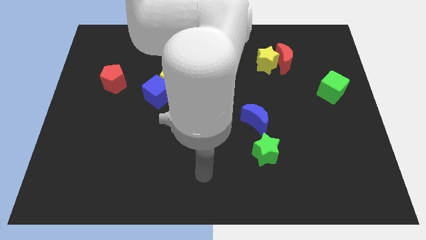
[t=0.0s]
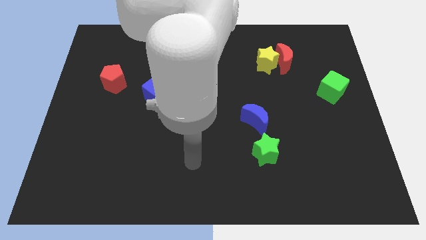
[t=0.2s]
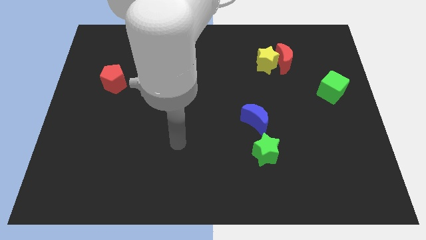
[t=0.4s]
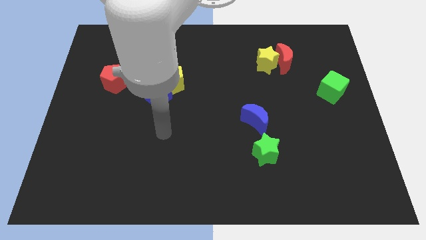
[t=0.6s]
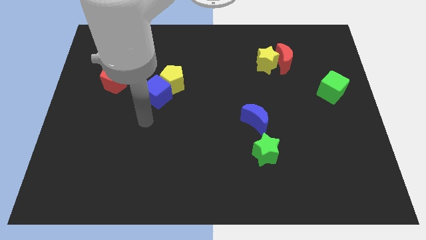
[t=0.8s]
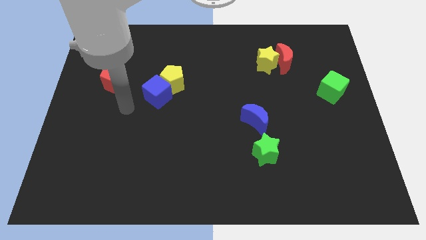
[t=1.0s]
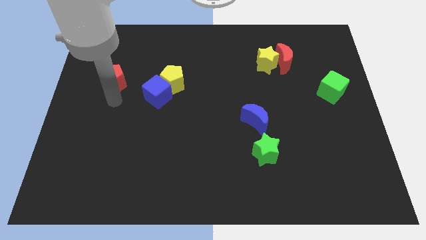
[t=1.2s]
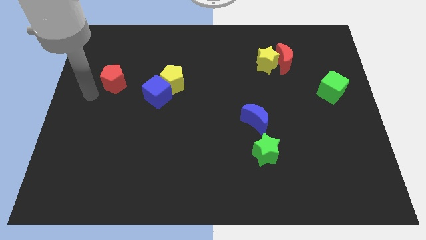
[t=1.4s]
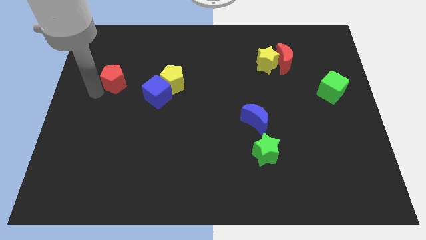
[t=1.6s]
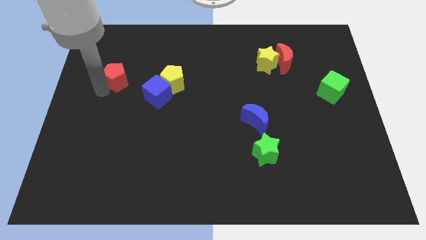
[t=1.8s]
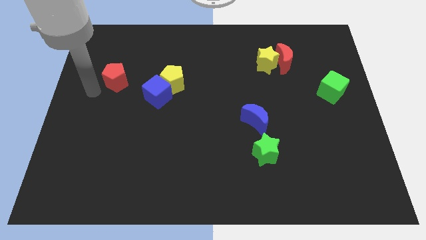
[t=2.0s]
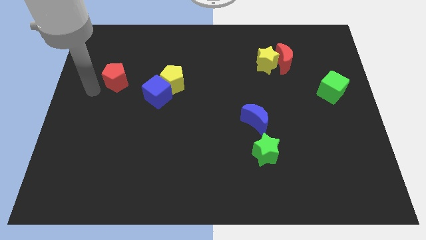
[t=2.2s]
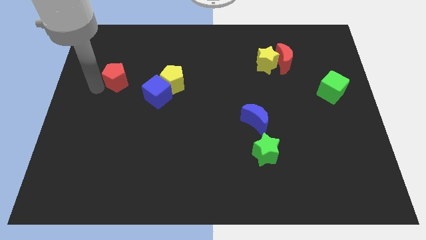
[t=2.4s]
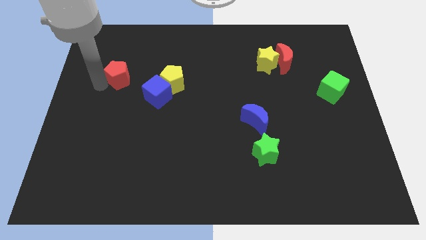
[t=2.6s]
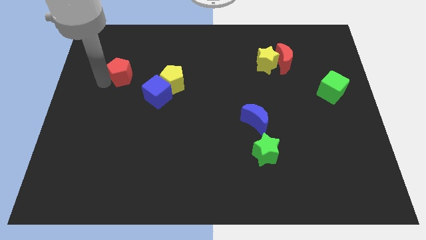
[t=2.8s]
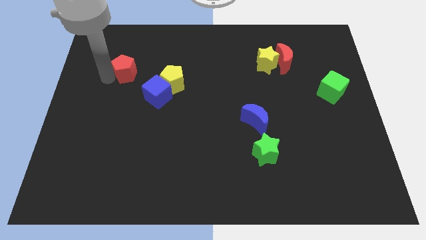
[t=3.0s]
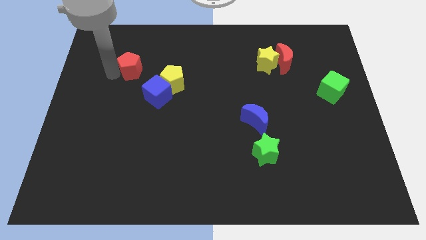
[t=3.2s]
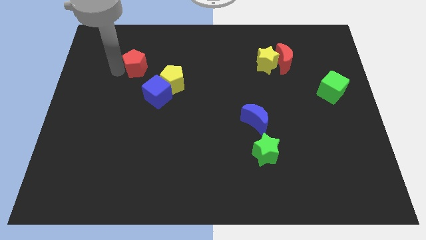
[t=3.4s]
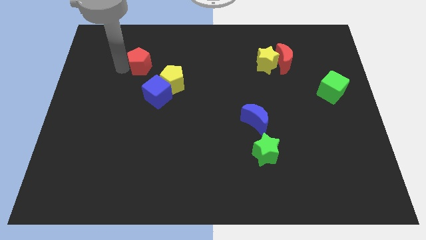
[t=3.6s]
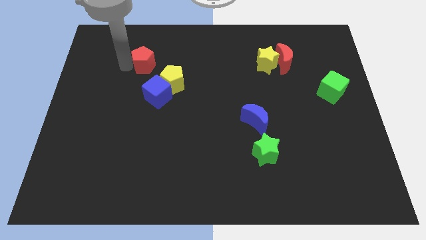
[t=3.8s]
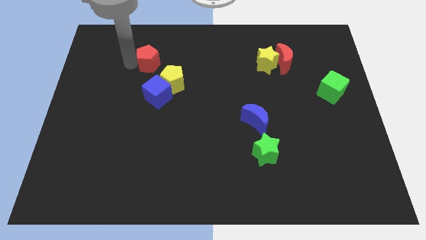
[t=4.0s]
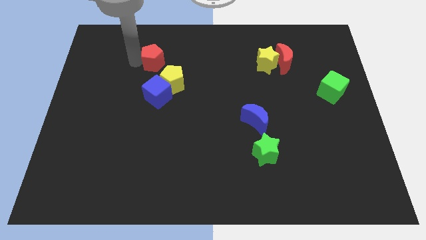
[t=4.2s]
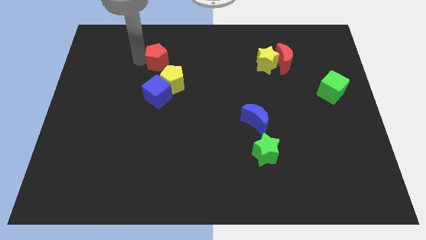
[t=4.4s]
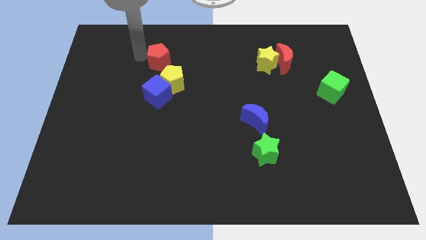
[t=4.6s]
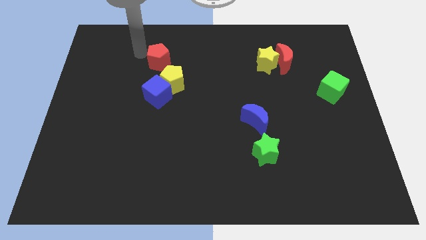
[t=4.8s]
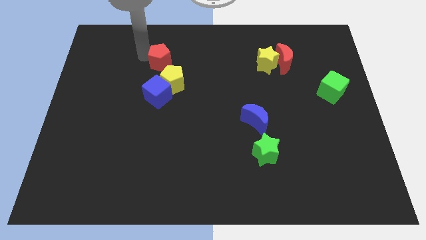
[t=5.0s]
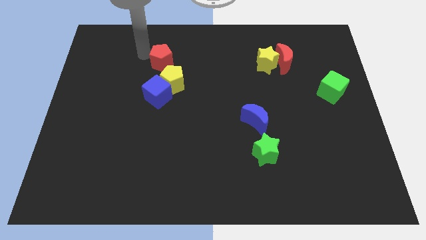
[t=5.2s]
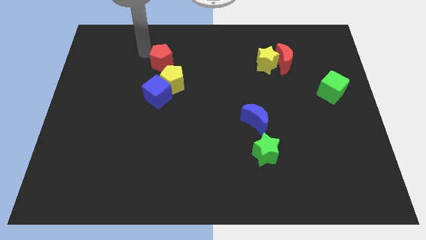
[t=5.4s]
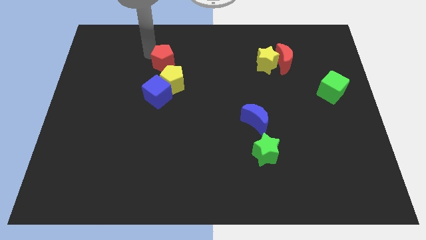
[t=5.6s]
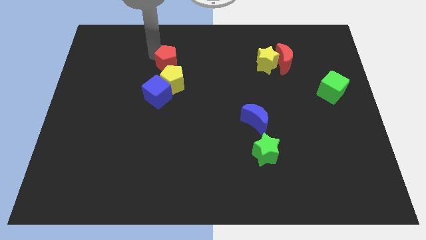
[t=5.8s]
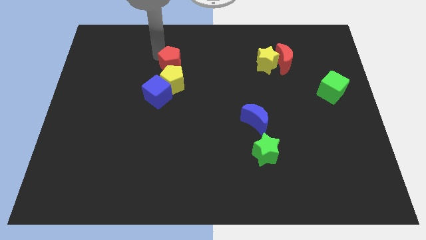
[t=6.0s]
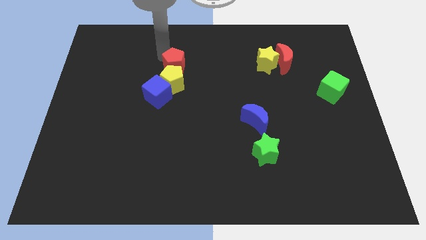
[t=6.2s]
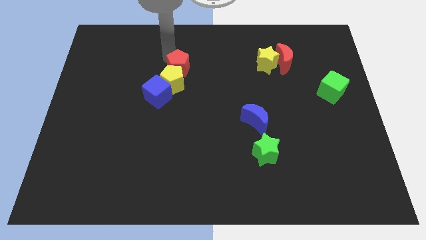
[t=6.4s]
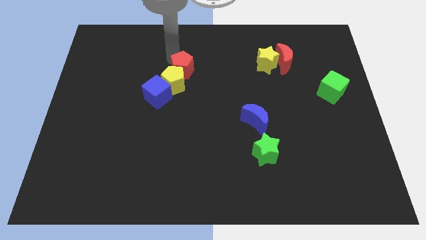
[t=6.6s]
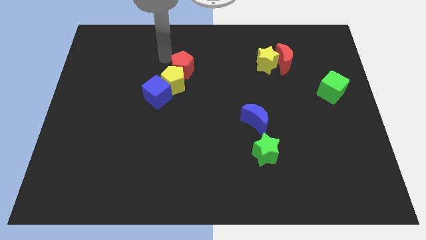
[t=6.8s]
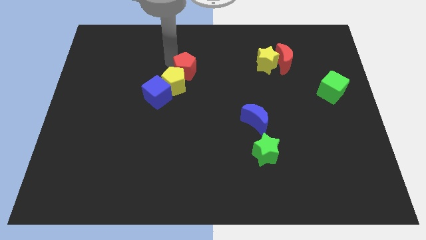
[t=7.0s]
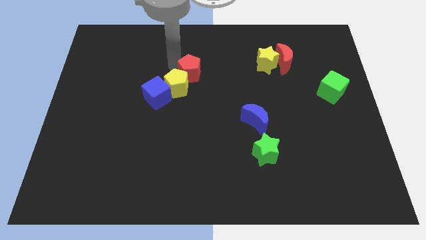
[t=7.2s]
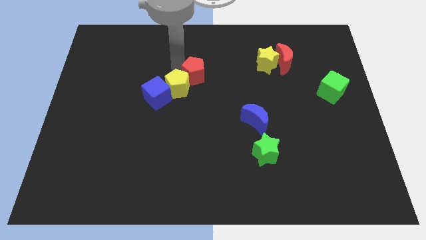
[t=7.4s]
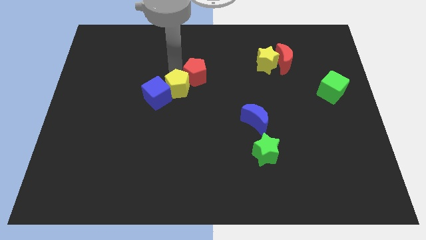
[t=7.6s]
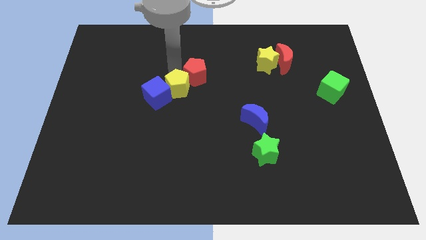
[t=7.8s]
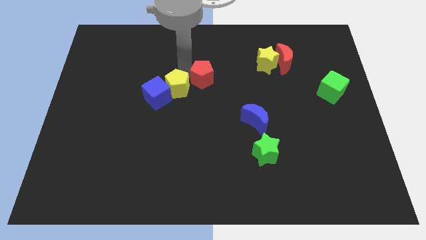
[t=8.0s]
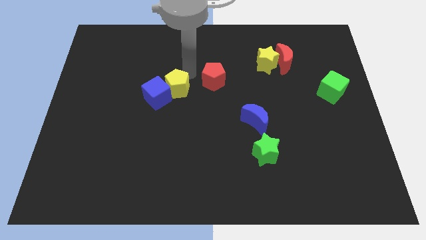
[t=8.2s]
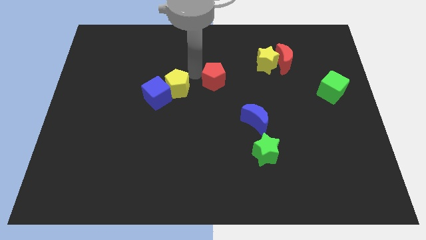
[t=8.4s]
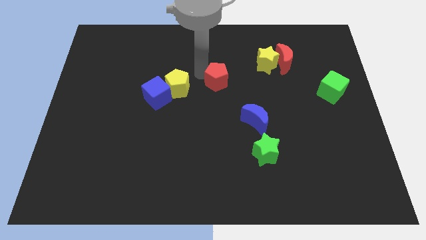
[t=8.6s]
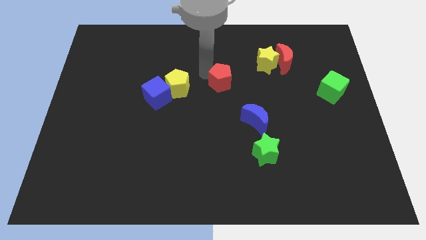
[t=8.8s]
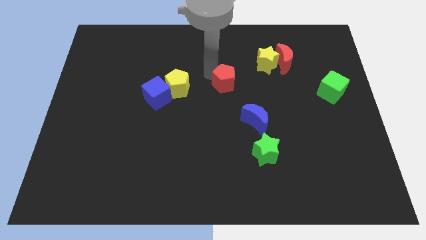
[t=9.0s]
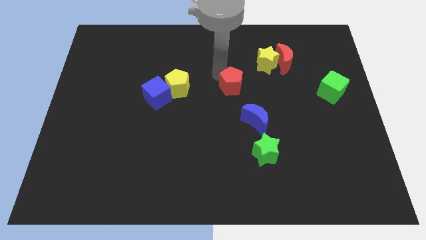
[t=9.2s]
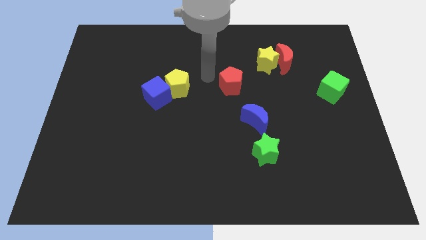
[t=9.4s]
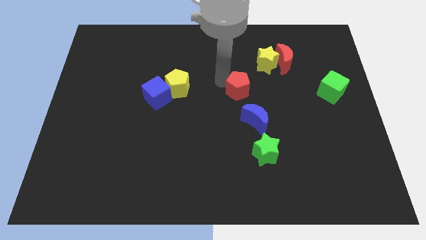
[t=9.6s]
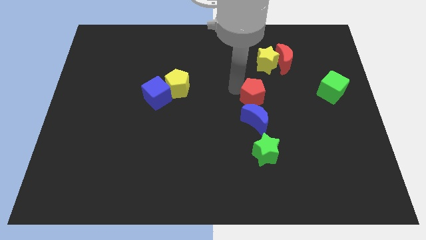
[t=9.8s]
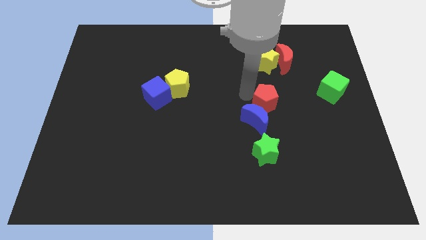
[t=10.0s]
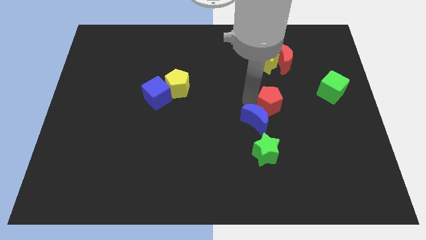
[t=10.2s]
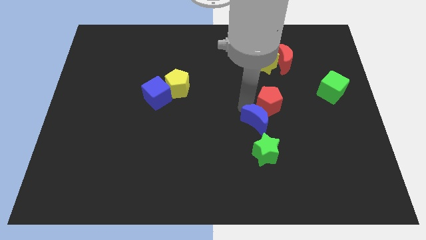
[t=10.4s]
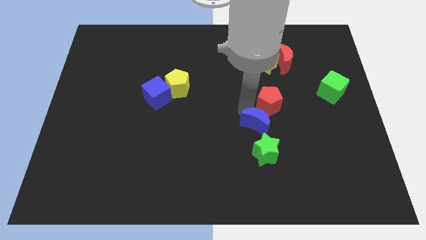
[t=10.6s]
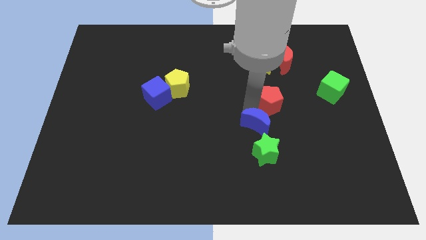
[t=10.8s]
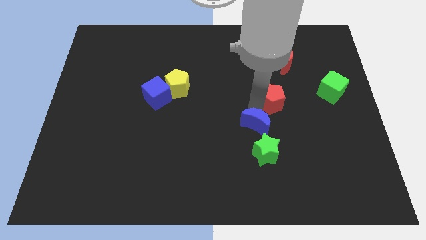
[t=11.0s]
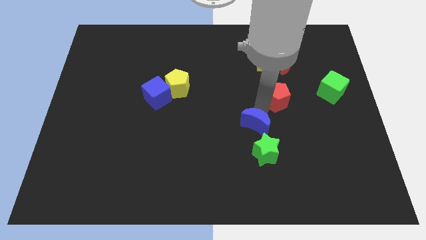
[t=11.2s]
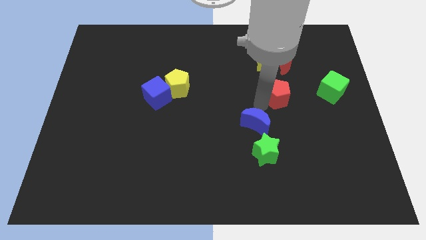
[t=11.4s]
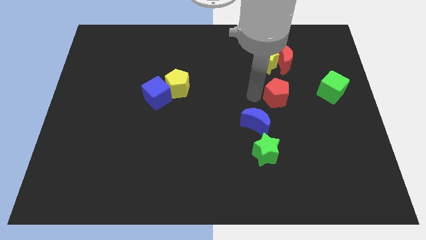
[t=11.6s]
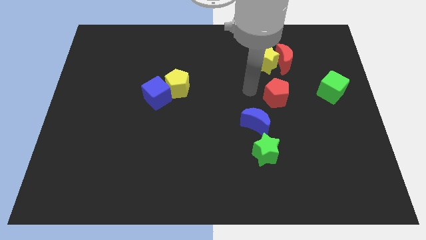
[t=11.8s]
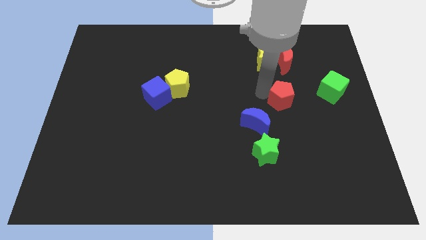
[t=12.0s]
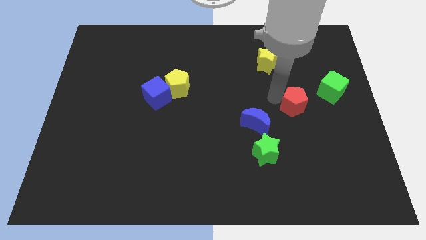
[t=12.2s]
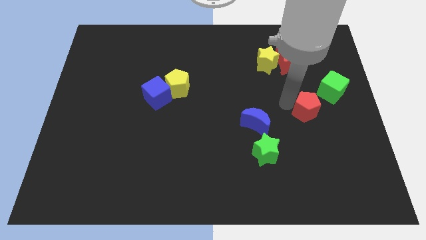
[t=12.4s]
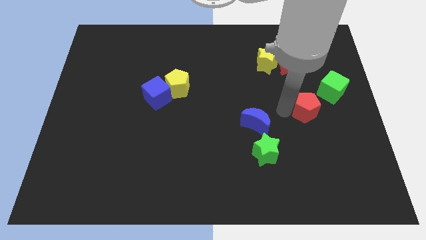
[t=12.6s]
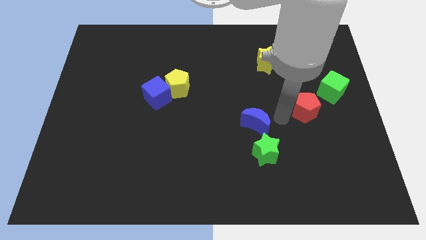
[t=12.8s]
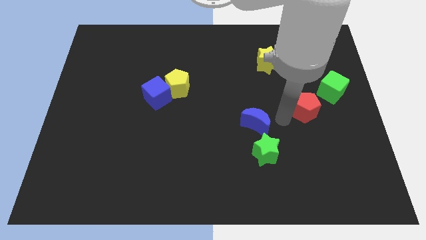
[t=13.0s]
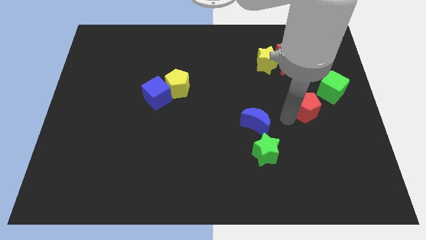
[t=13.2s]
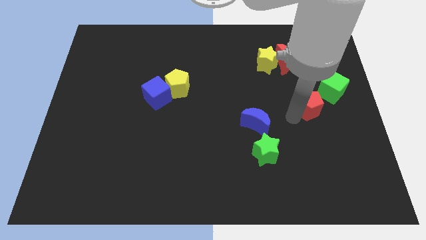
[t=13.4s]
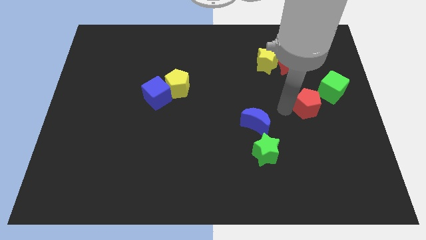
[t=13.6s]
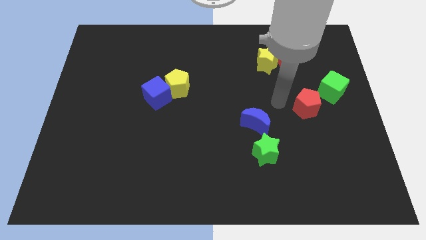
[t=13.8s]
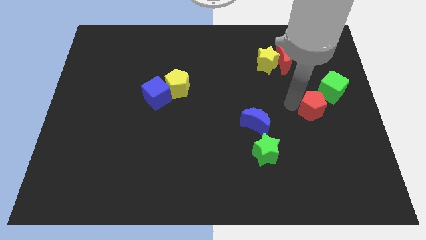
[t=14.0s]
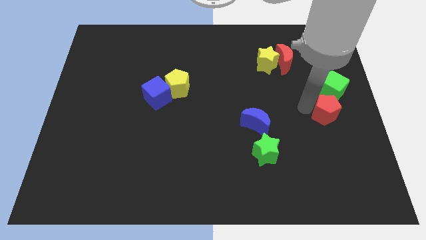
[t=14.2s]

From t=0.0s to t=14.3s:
push the red pentagon to the center right
